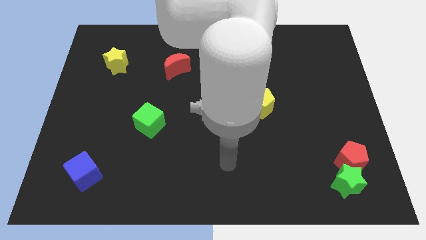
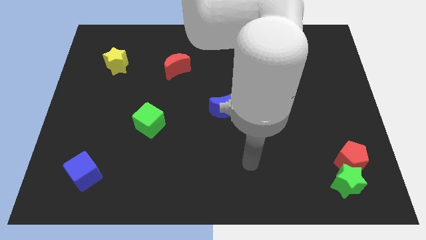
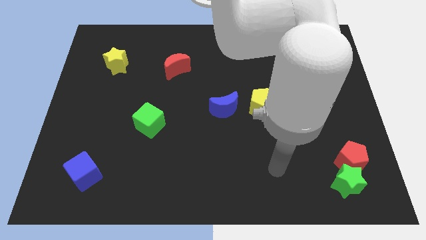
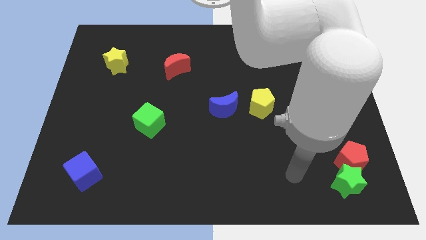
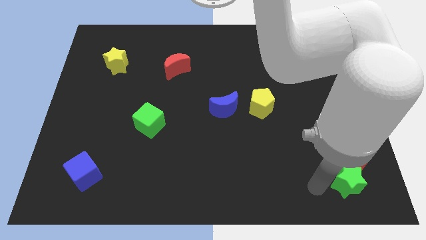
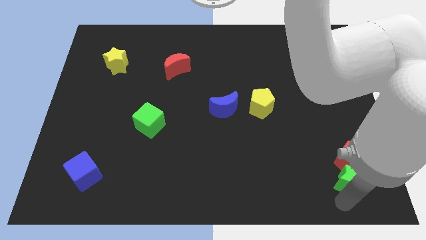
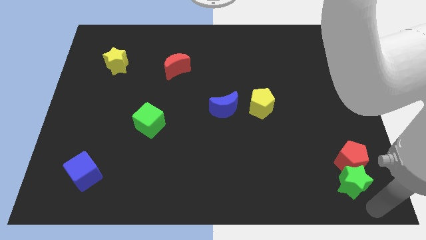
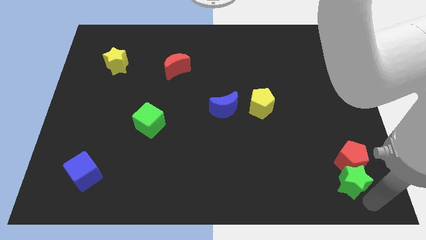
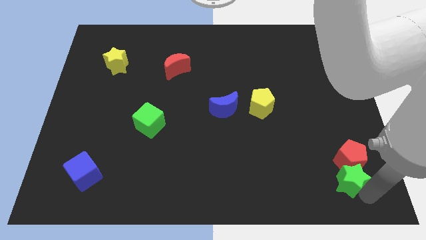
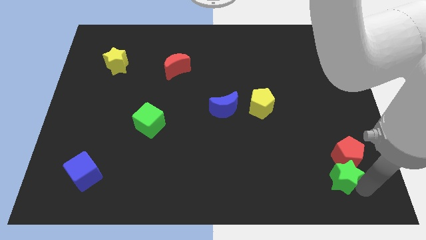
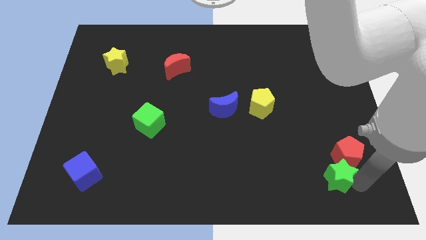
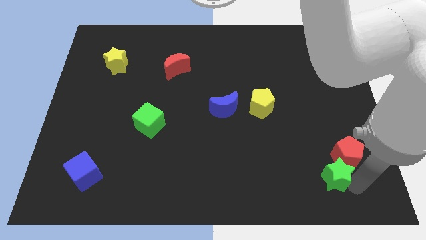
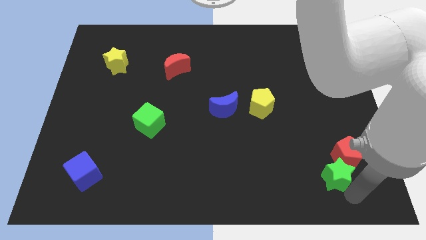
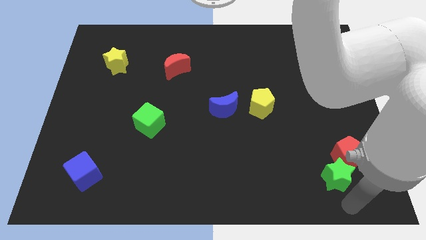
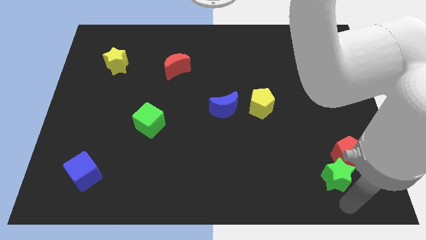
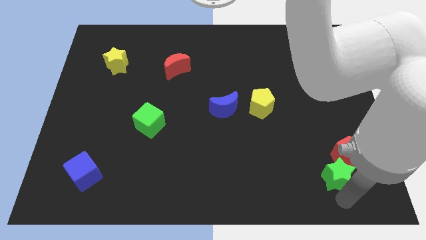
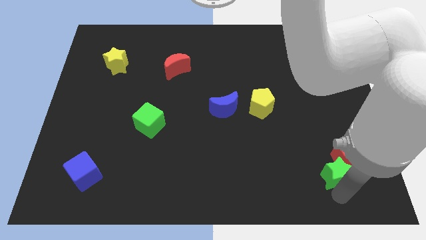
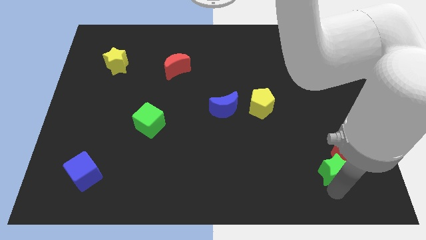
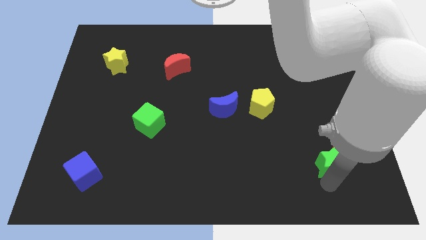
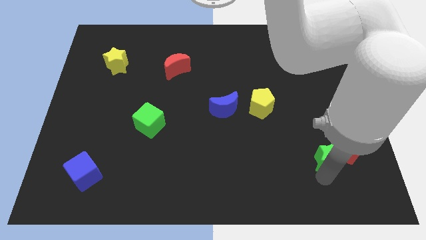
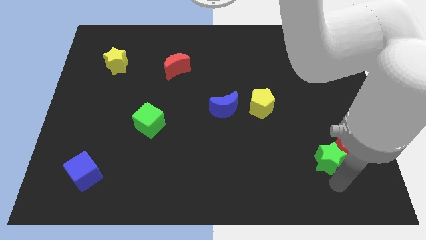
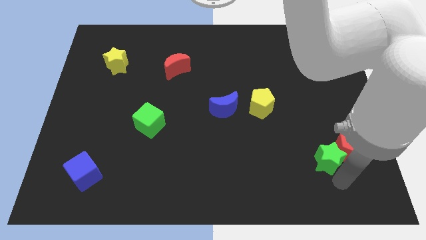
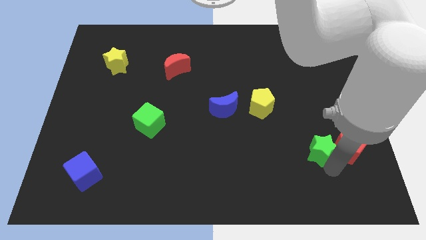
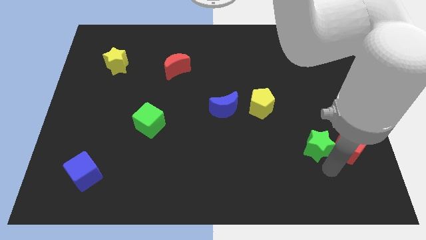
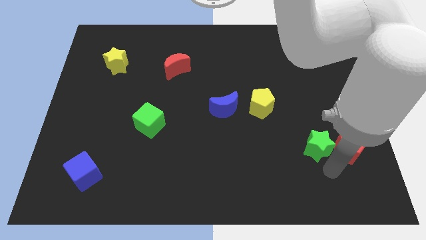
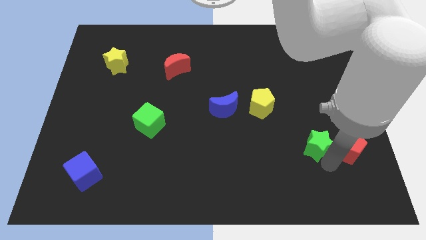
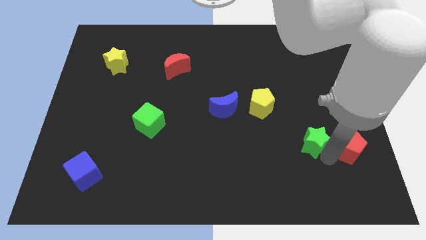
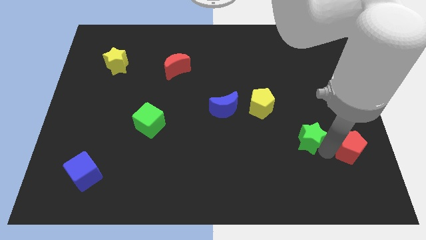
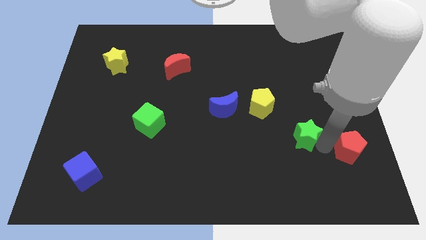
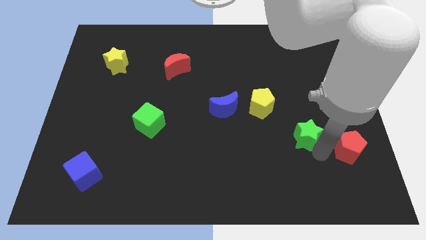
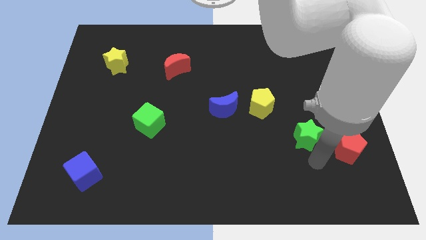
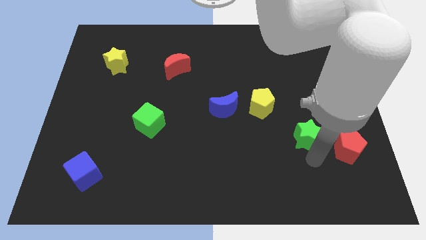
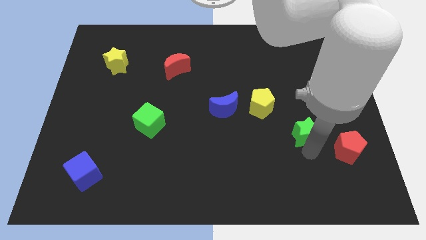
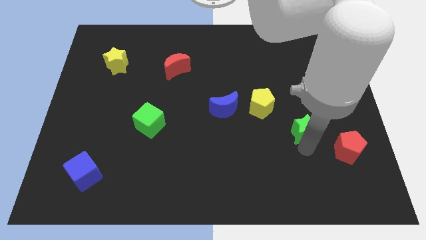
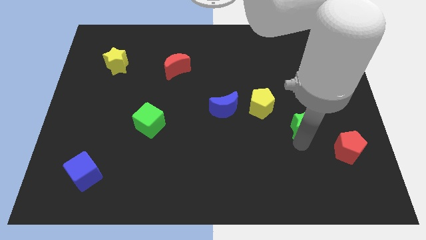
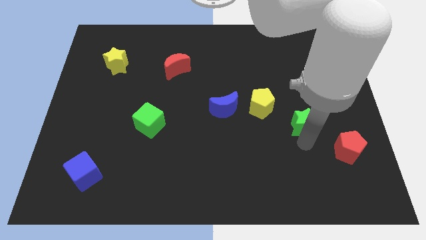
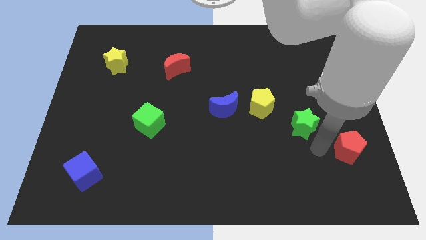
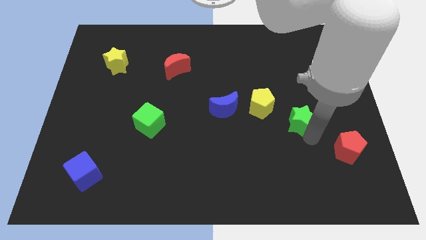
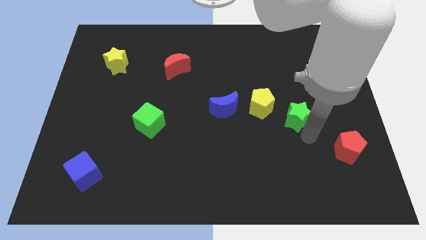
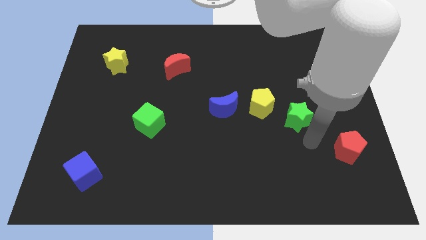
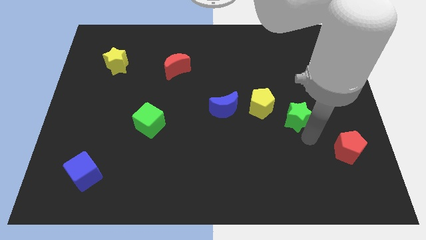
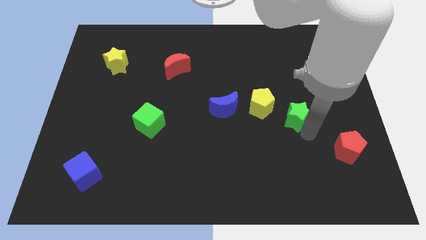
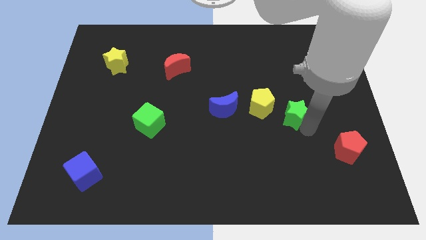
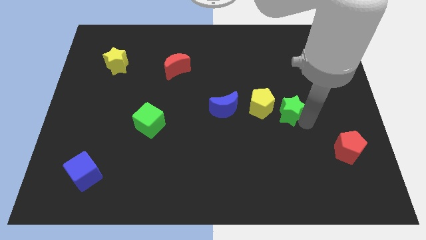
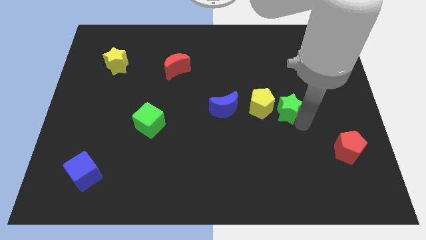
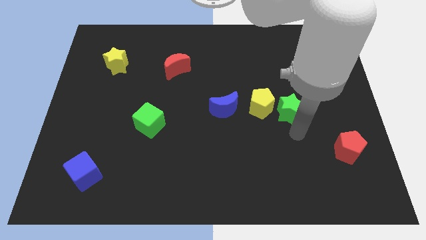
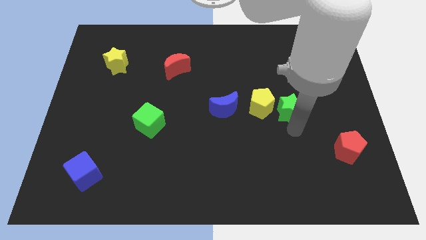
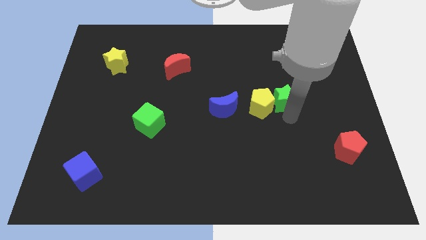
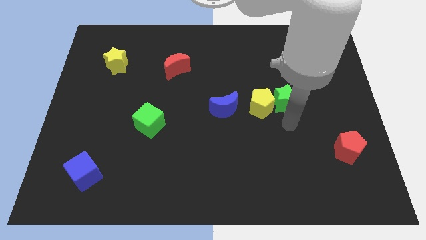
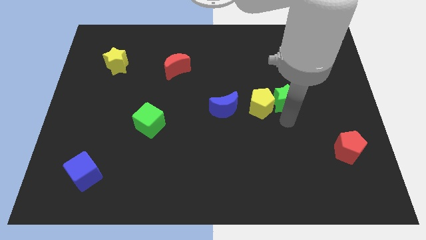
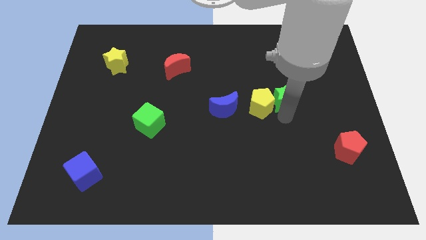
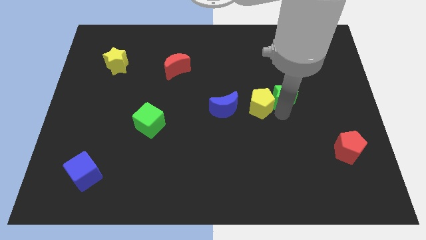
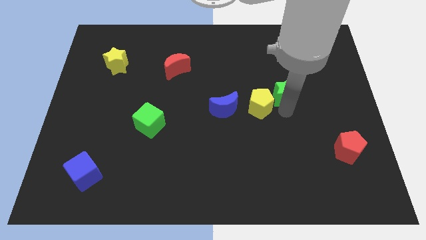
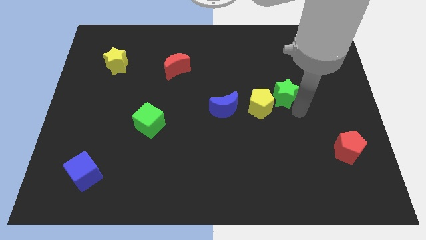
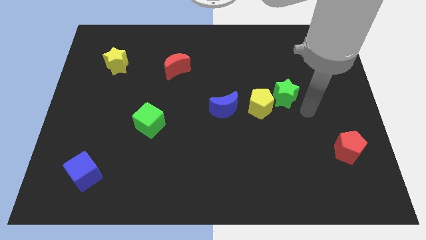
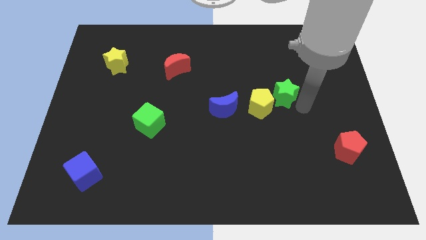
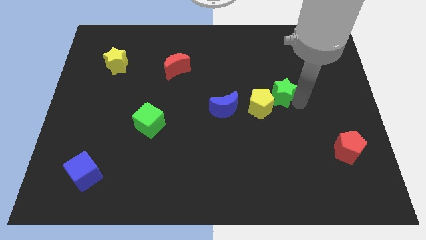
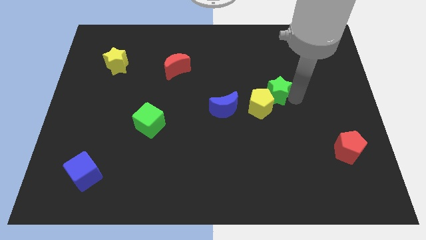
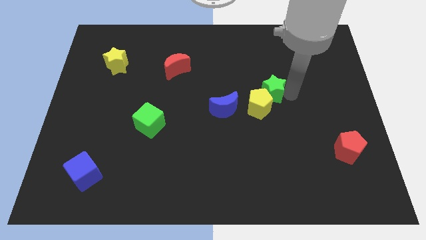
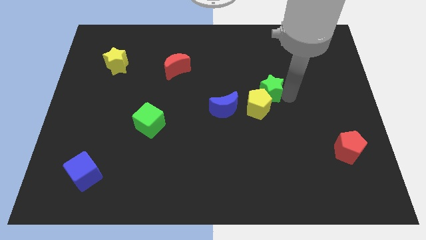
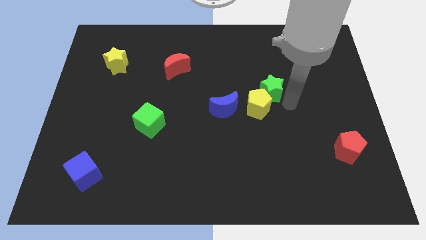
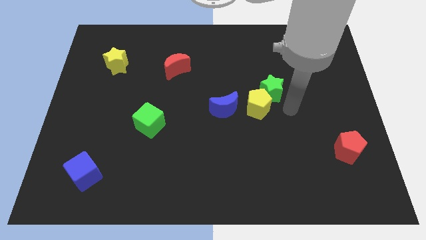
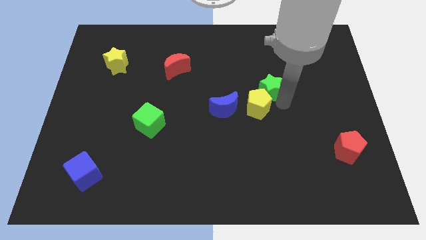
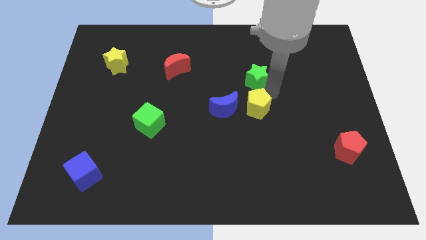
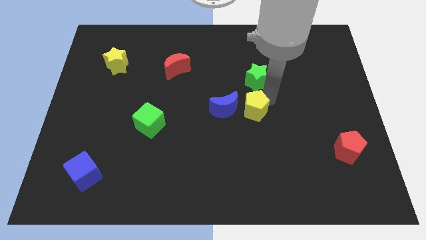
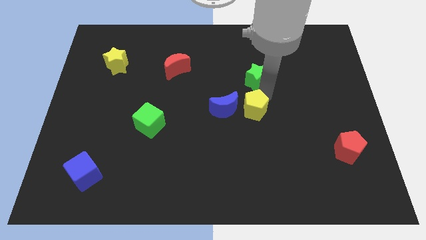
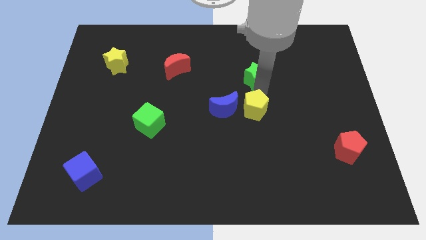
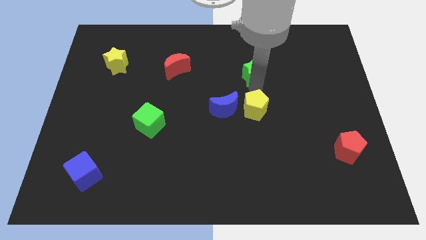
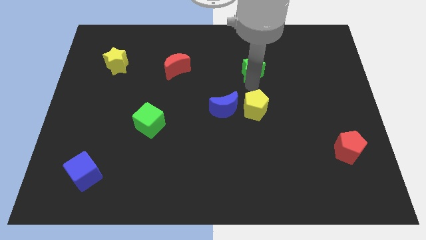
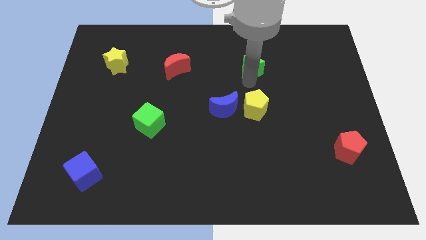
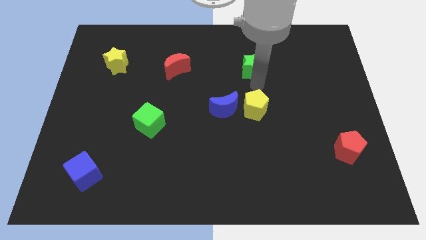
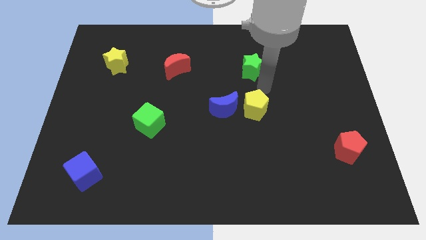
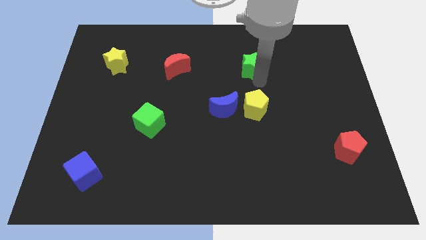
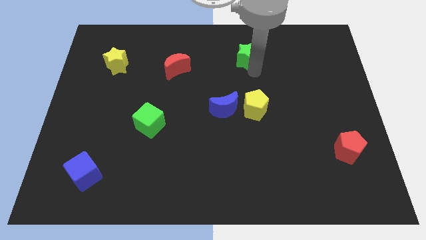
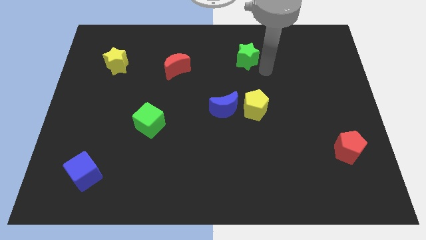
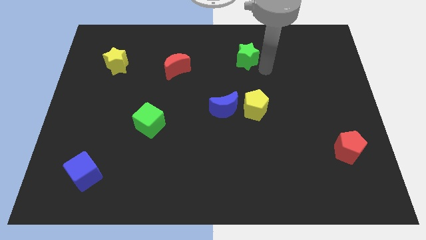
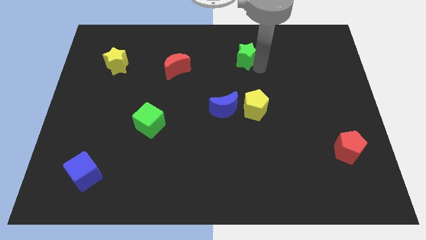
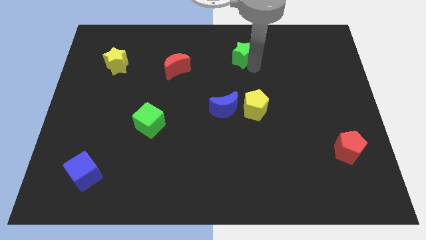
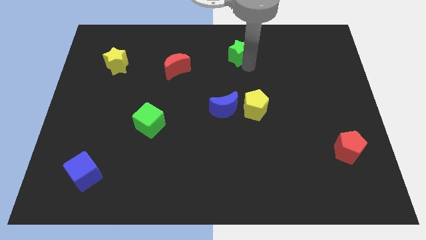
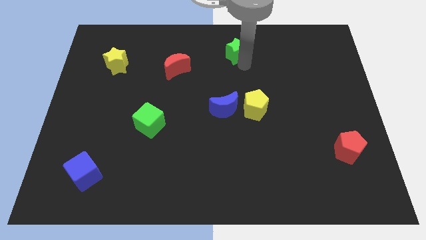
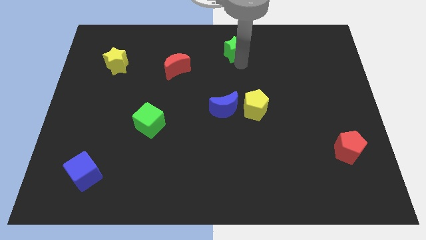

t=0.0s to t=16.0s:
put the green star to the towards your base
